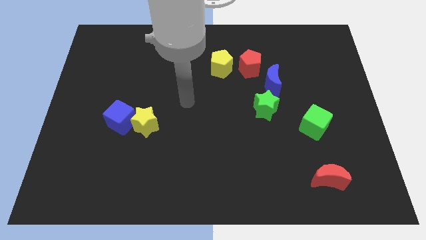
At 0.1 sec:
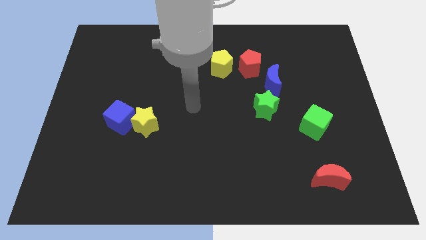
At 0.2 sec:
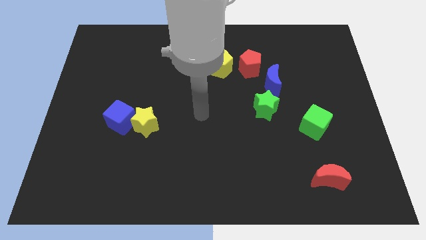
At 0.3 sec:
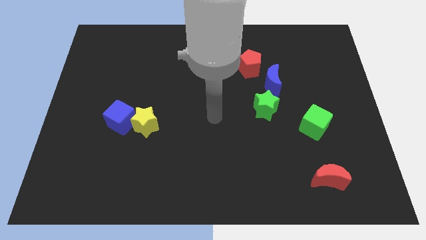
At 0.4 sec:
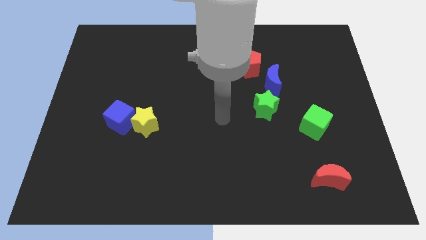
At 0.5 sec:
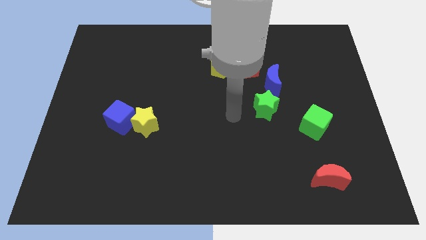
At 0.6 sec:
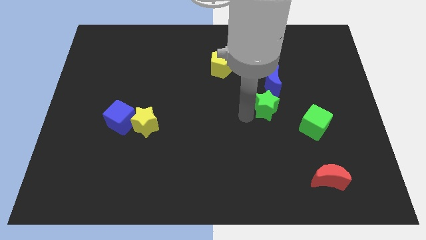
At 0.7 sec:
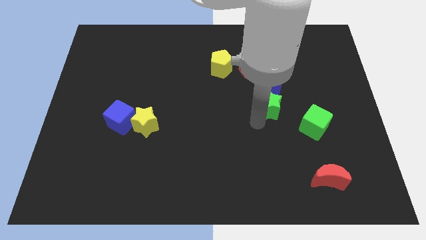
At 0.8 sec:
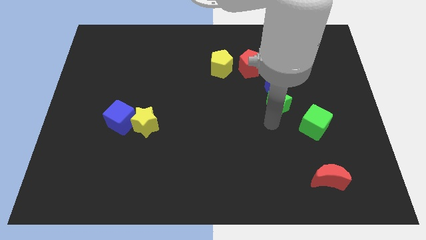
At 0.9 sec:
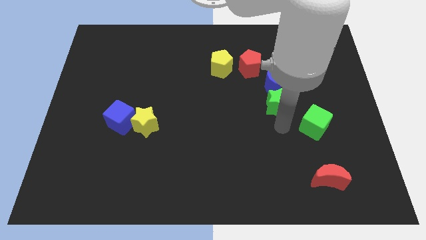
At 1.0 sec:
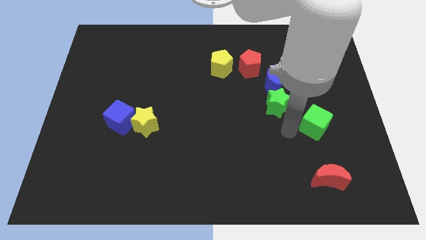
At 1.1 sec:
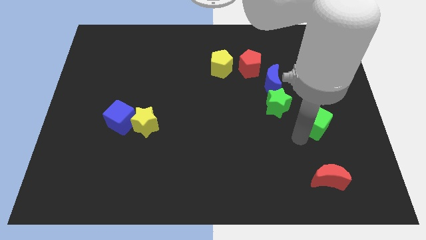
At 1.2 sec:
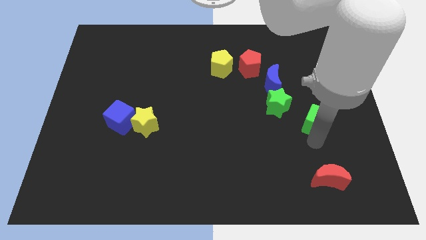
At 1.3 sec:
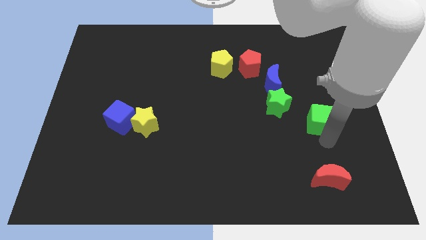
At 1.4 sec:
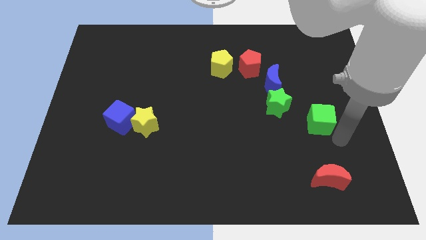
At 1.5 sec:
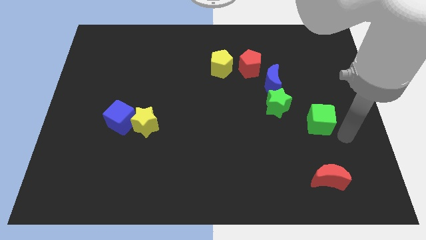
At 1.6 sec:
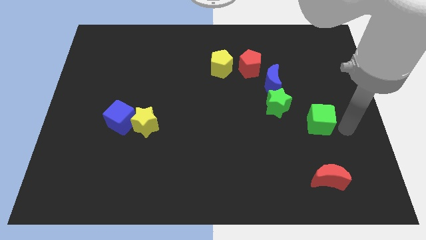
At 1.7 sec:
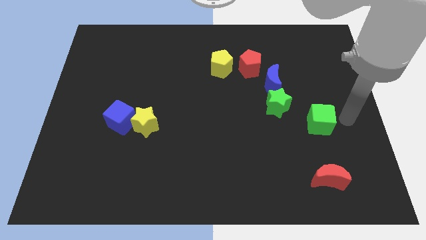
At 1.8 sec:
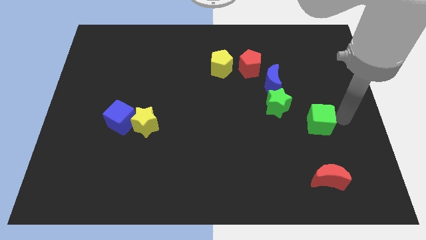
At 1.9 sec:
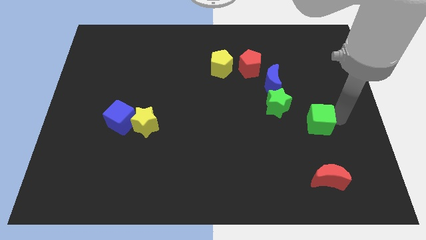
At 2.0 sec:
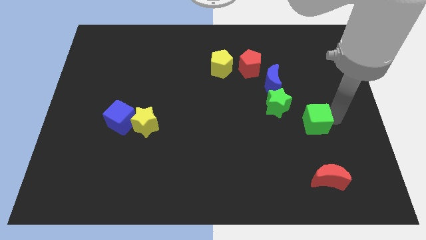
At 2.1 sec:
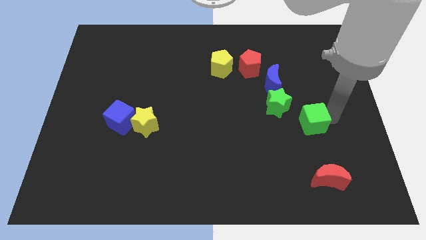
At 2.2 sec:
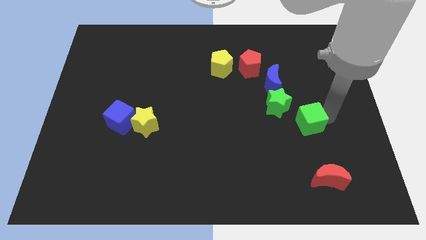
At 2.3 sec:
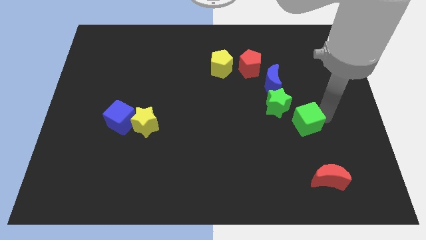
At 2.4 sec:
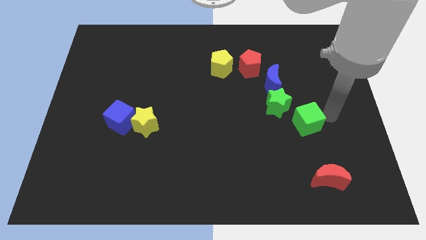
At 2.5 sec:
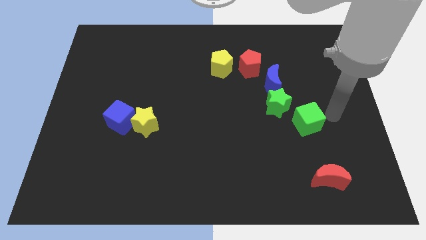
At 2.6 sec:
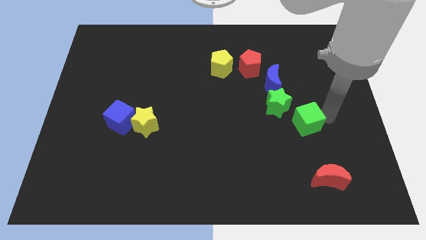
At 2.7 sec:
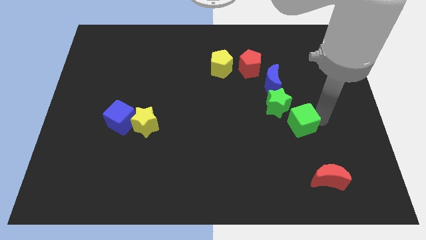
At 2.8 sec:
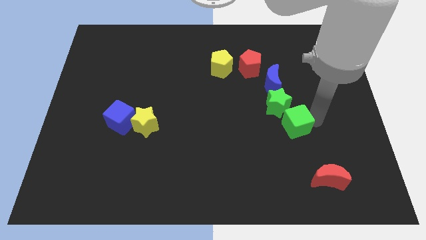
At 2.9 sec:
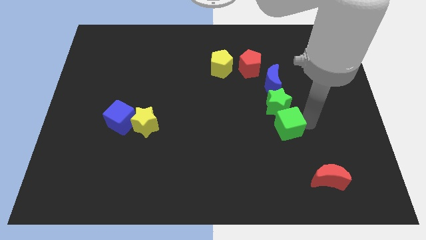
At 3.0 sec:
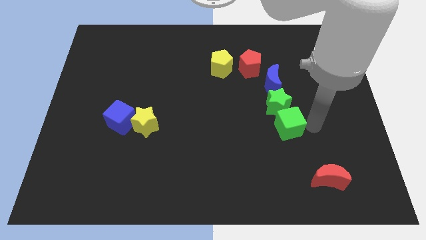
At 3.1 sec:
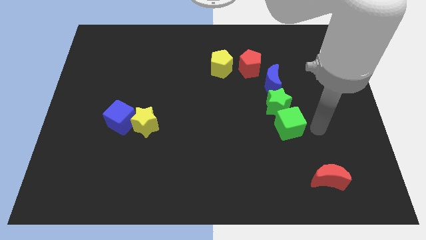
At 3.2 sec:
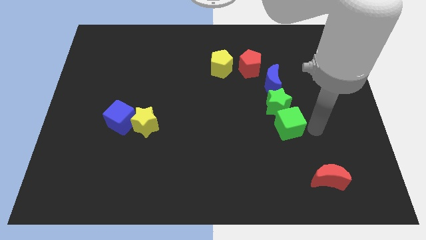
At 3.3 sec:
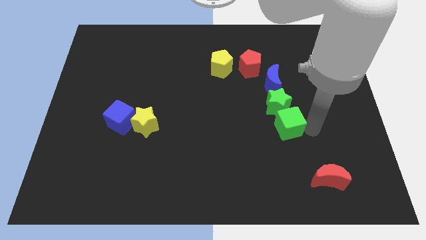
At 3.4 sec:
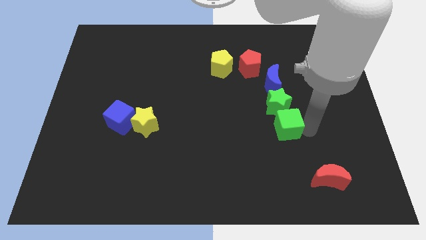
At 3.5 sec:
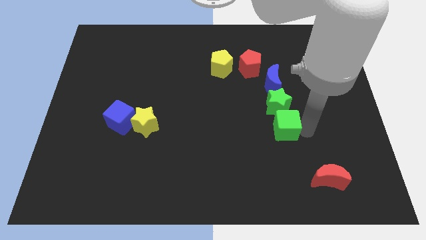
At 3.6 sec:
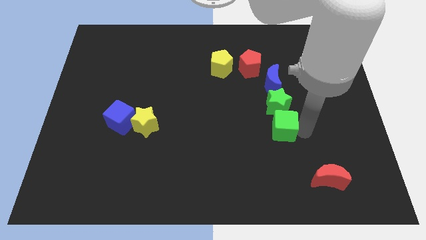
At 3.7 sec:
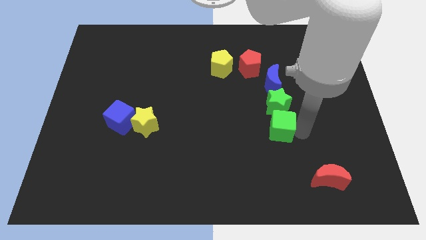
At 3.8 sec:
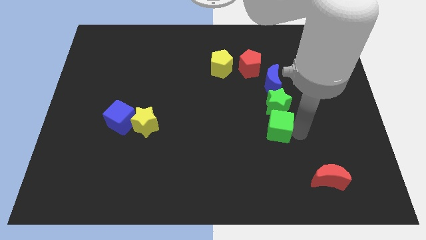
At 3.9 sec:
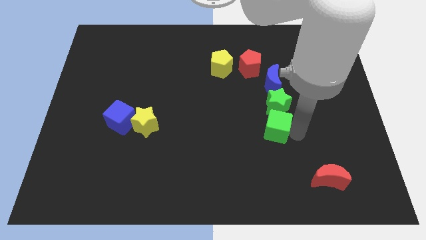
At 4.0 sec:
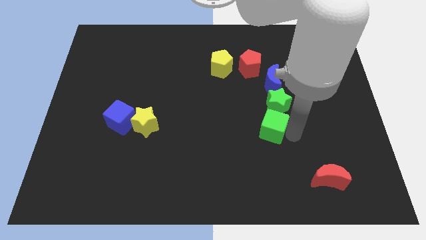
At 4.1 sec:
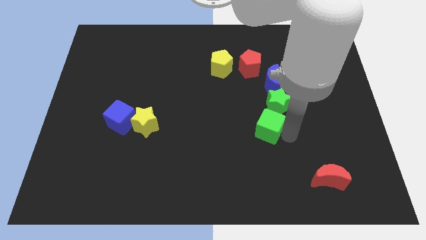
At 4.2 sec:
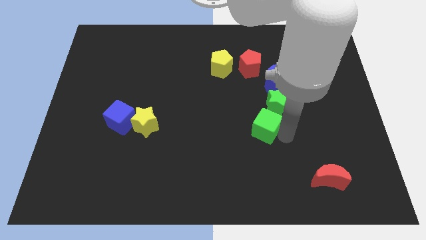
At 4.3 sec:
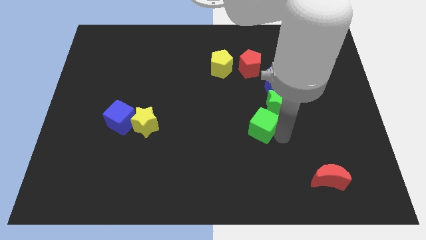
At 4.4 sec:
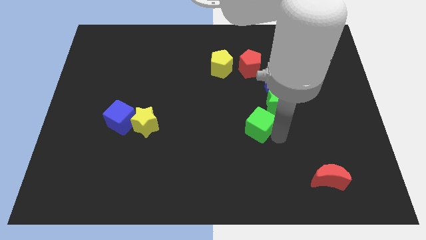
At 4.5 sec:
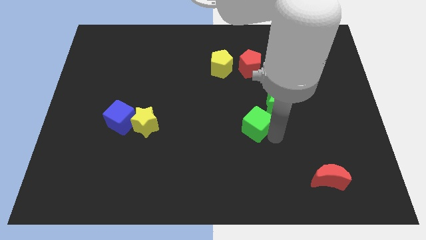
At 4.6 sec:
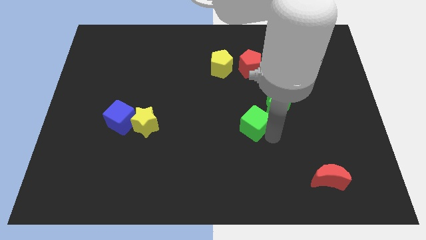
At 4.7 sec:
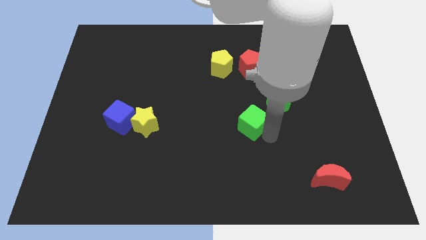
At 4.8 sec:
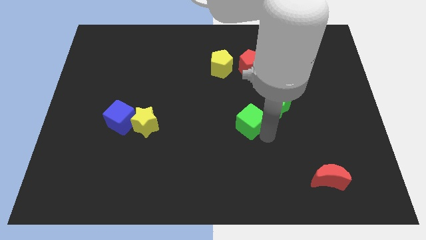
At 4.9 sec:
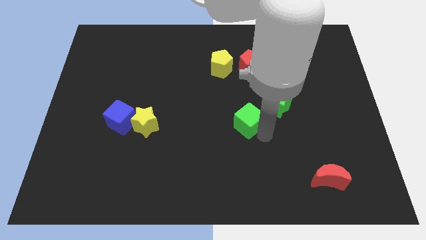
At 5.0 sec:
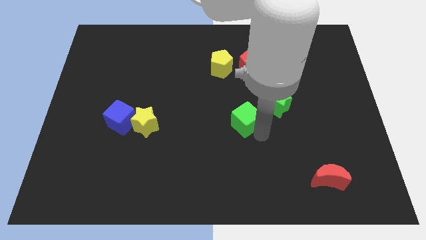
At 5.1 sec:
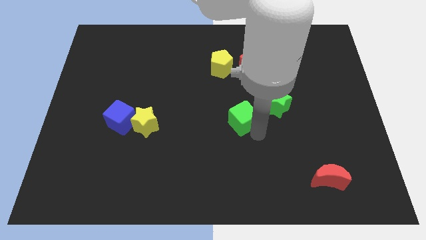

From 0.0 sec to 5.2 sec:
slide the green cube upwards and left somewhat

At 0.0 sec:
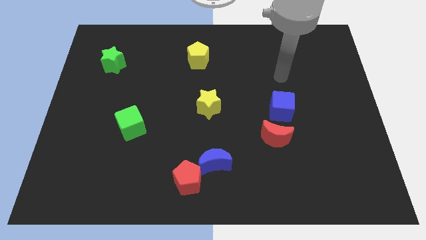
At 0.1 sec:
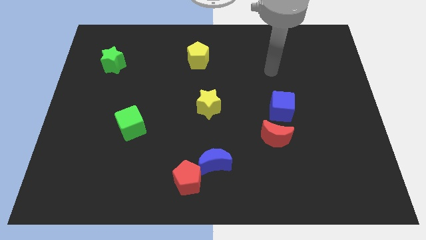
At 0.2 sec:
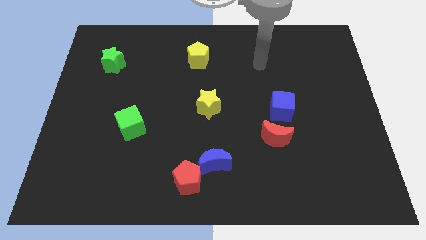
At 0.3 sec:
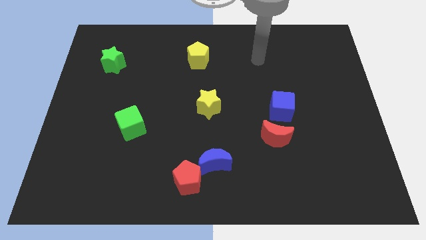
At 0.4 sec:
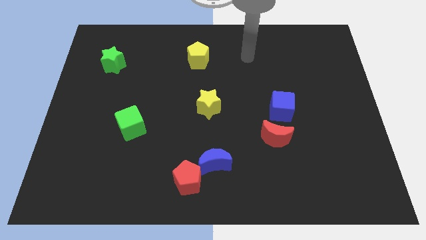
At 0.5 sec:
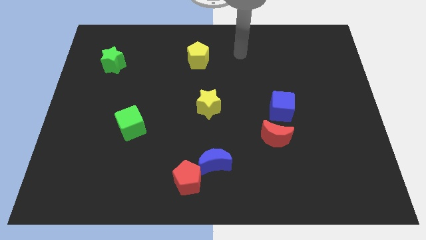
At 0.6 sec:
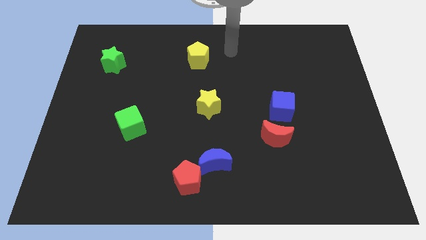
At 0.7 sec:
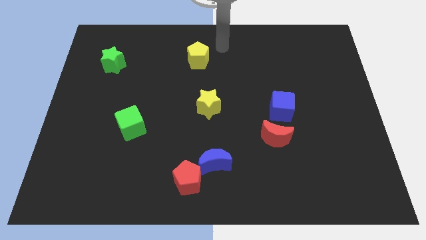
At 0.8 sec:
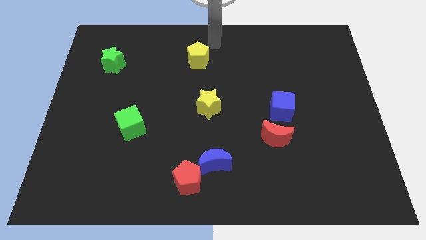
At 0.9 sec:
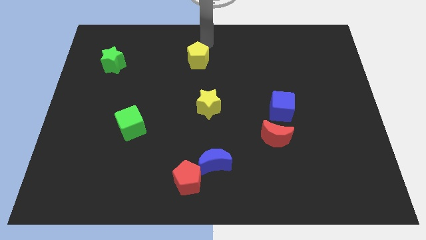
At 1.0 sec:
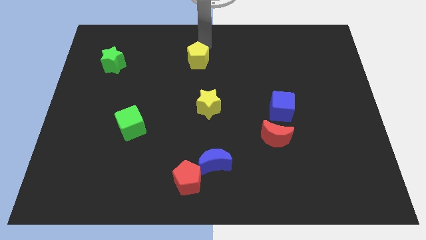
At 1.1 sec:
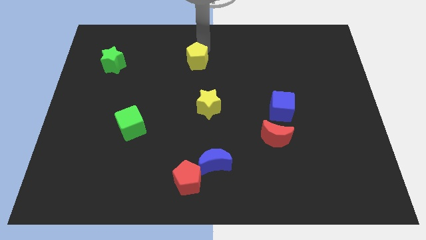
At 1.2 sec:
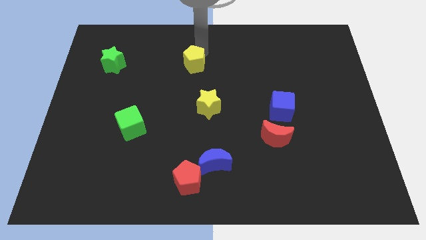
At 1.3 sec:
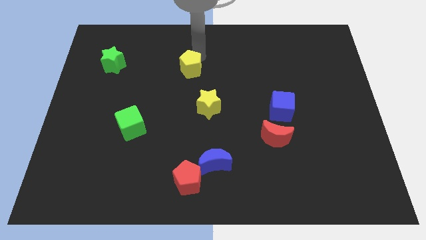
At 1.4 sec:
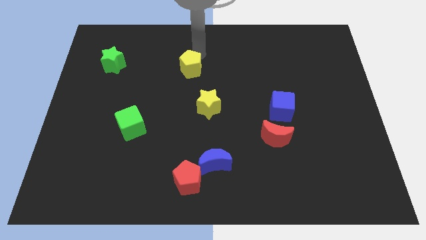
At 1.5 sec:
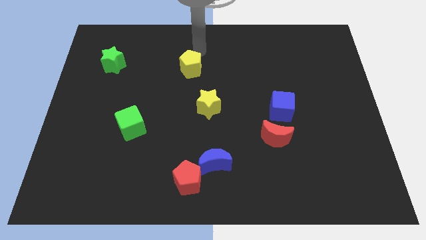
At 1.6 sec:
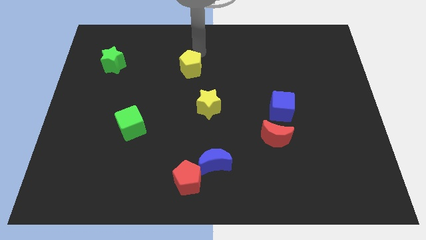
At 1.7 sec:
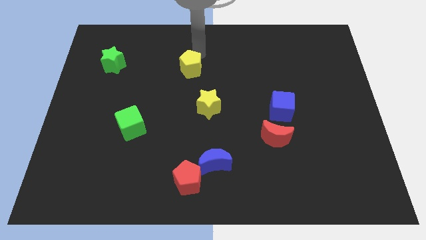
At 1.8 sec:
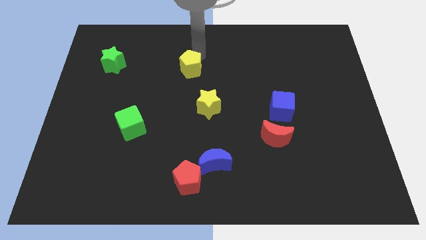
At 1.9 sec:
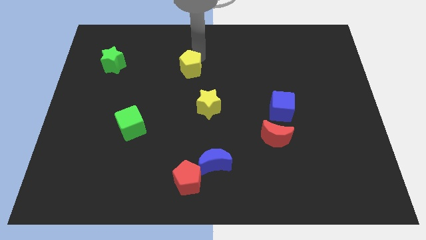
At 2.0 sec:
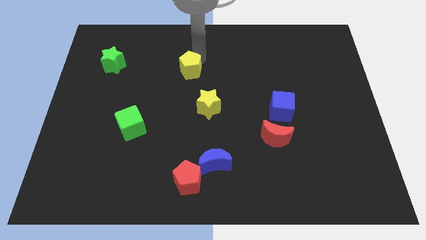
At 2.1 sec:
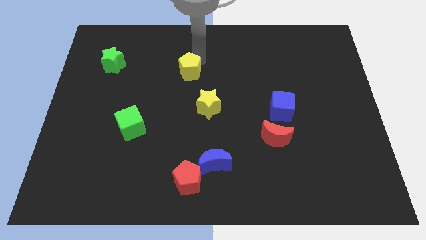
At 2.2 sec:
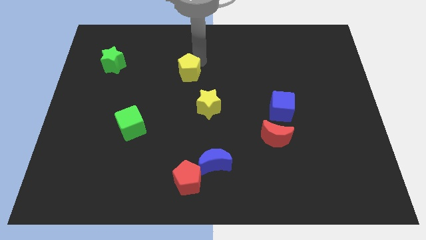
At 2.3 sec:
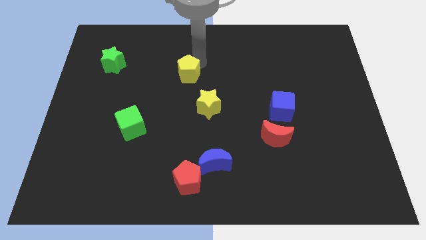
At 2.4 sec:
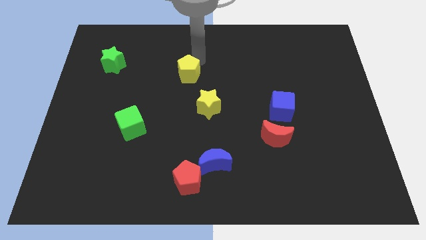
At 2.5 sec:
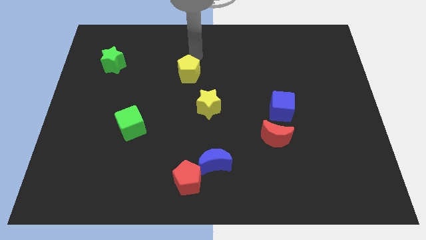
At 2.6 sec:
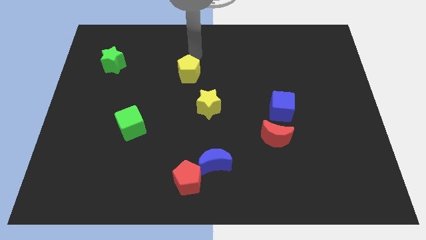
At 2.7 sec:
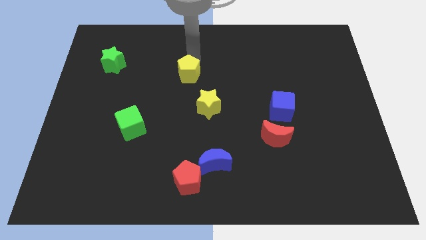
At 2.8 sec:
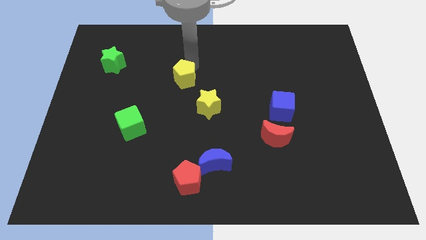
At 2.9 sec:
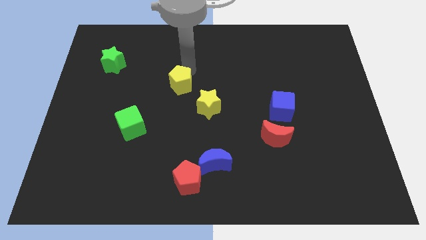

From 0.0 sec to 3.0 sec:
slightly slide the yellow pentagon downwards
